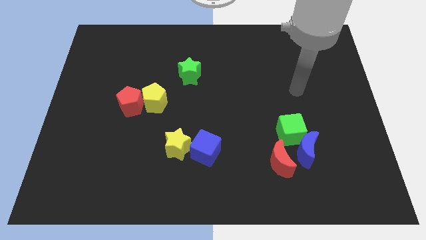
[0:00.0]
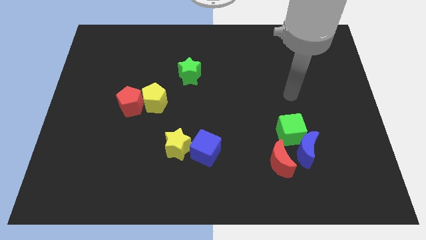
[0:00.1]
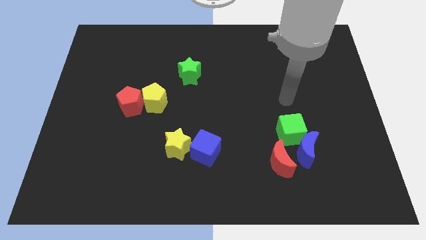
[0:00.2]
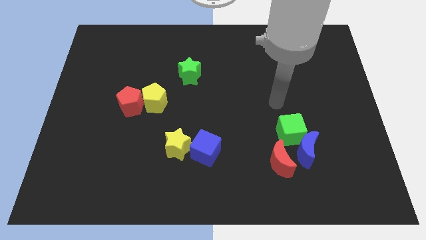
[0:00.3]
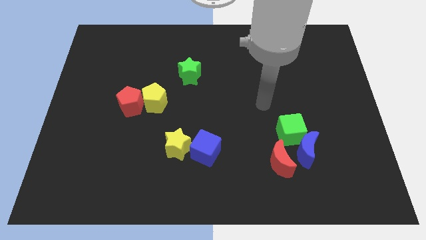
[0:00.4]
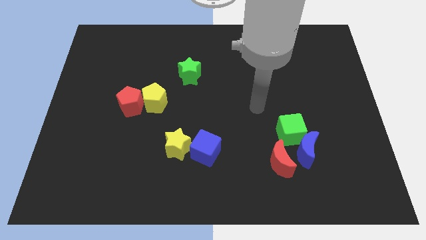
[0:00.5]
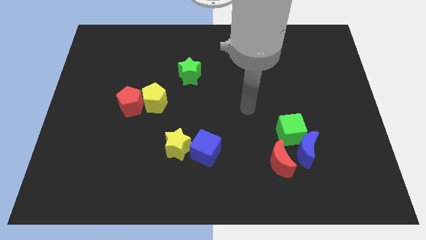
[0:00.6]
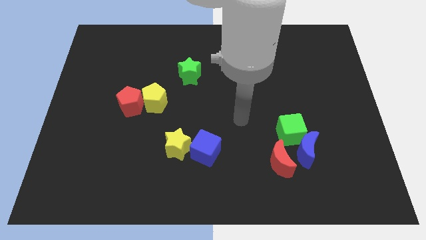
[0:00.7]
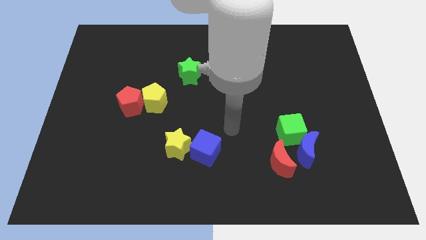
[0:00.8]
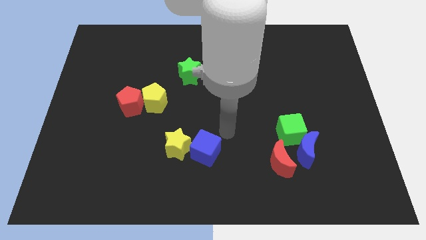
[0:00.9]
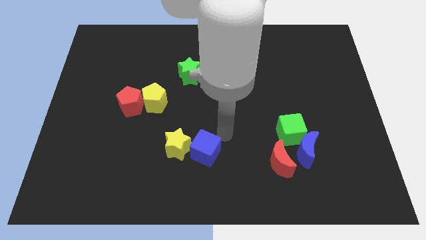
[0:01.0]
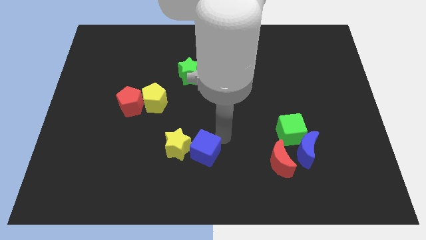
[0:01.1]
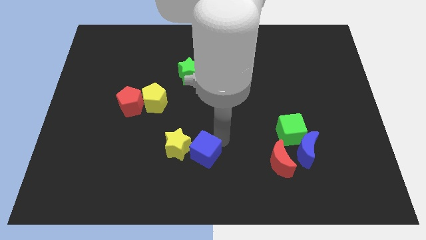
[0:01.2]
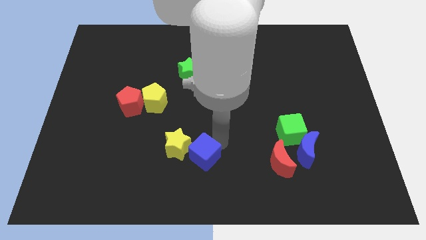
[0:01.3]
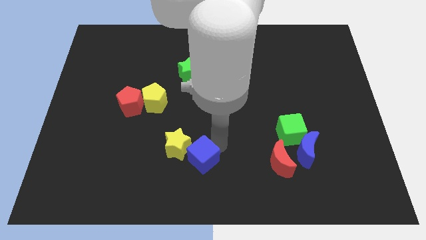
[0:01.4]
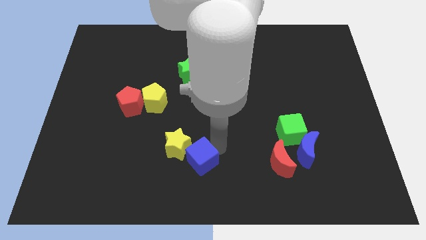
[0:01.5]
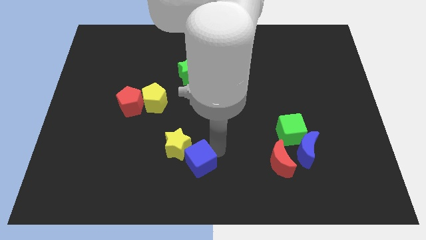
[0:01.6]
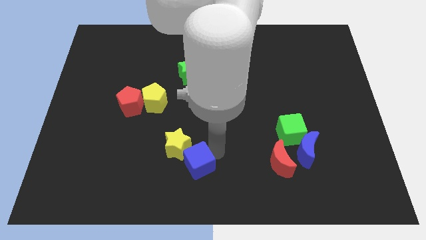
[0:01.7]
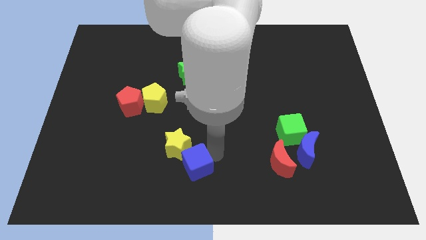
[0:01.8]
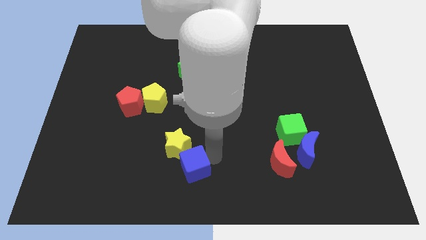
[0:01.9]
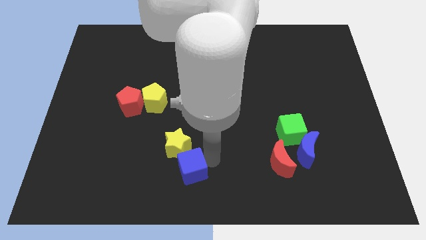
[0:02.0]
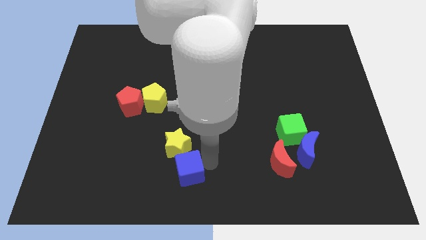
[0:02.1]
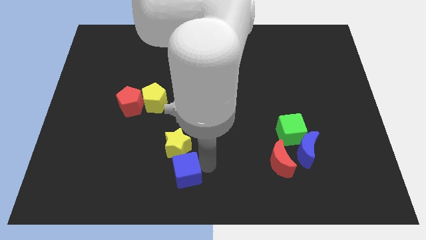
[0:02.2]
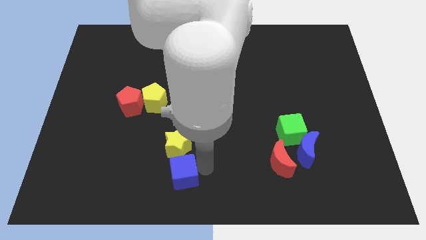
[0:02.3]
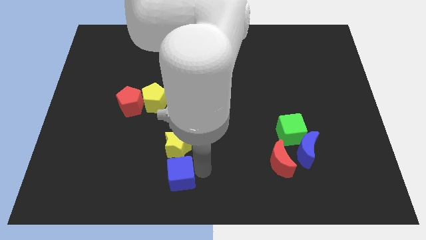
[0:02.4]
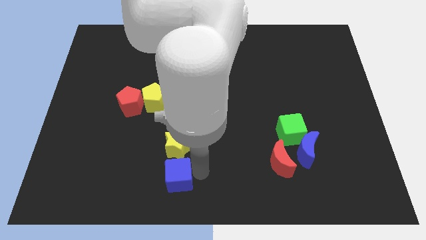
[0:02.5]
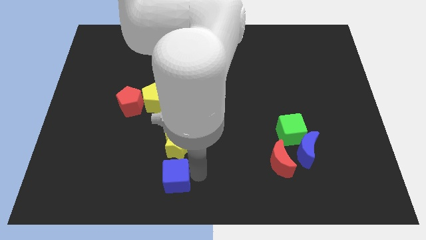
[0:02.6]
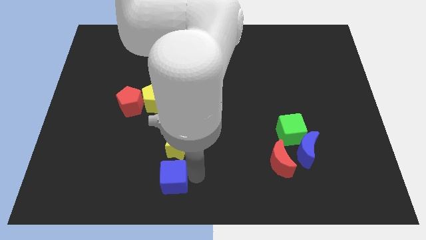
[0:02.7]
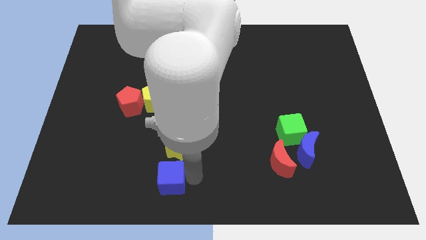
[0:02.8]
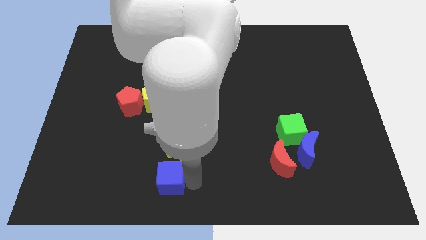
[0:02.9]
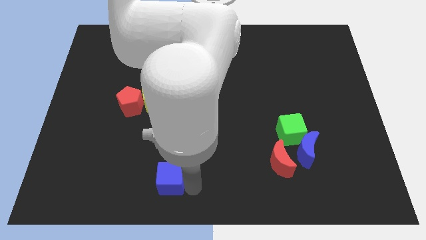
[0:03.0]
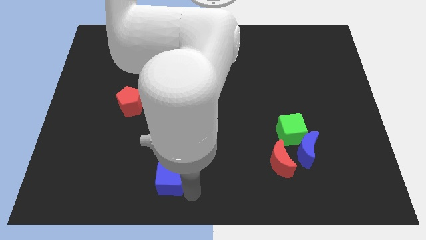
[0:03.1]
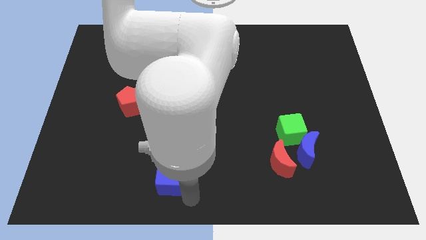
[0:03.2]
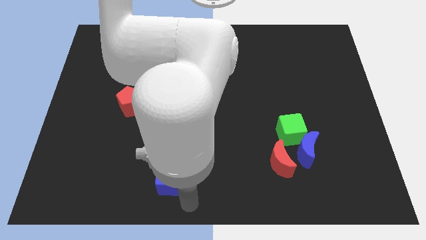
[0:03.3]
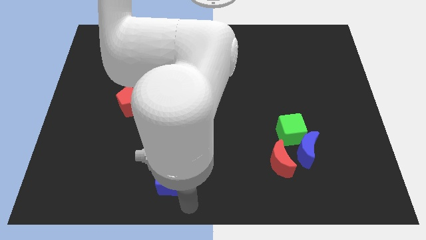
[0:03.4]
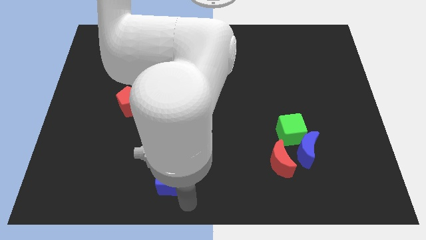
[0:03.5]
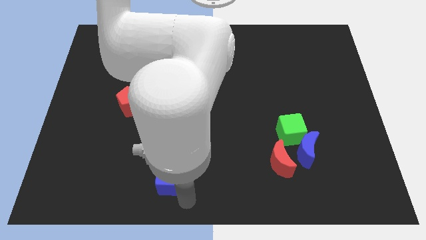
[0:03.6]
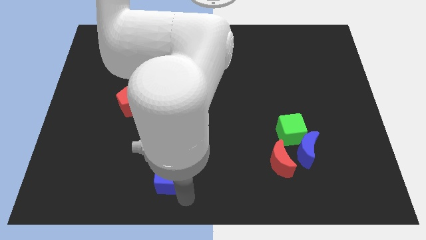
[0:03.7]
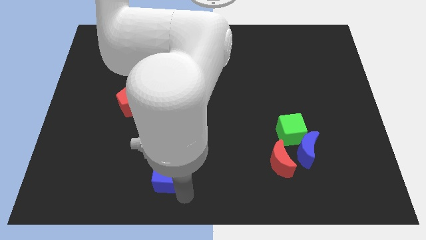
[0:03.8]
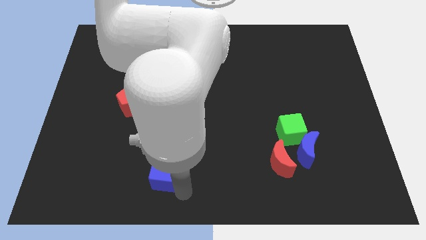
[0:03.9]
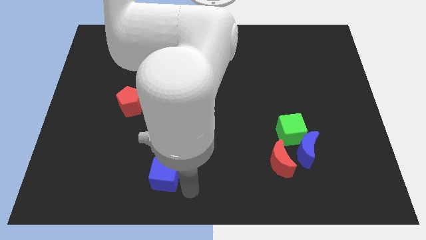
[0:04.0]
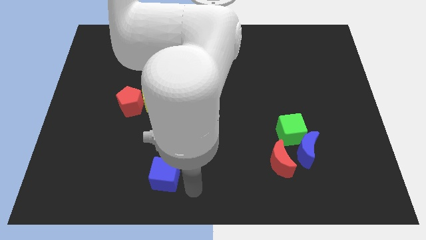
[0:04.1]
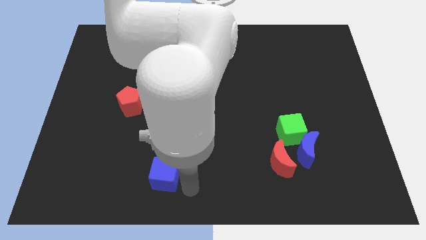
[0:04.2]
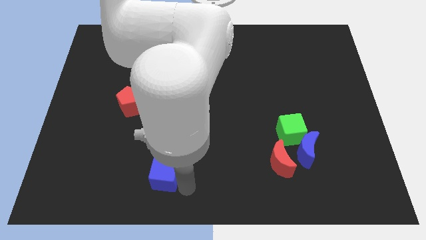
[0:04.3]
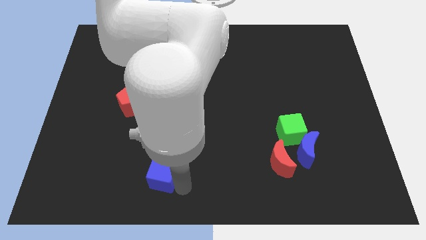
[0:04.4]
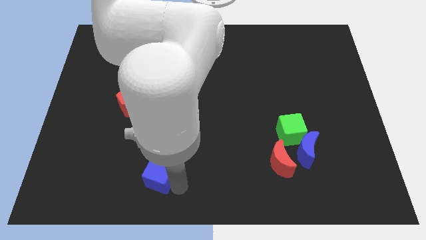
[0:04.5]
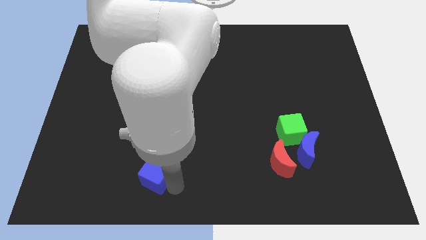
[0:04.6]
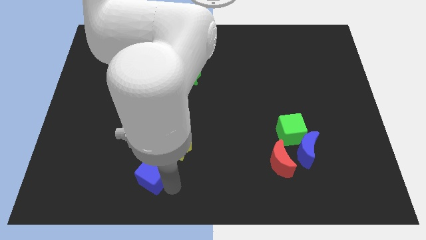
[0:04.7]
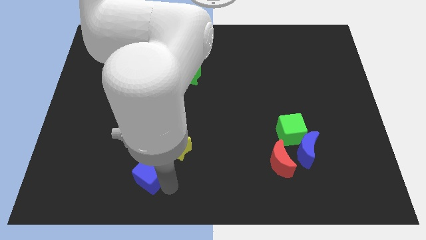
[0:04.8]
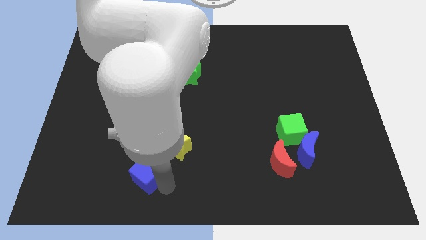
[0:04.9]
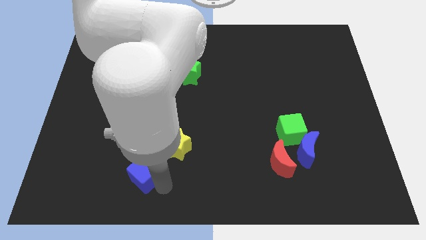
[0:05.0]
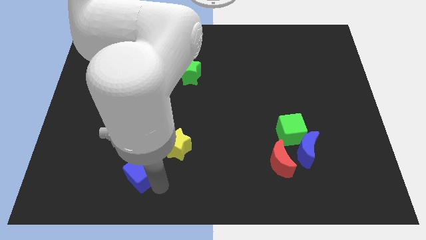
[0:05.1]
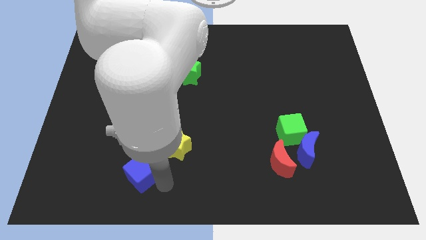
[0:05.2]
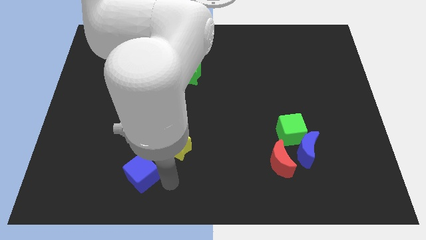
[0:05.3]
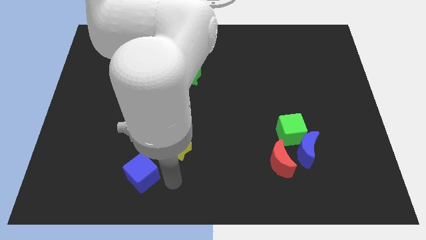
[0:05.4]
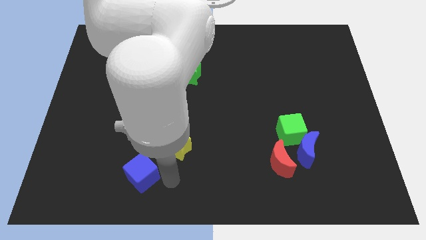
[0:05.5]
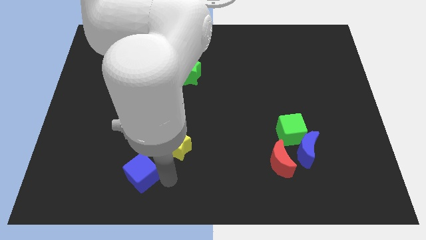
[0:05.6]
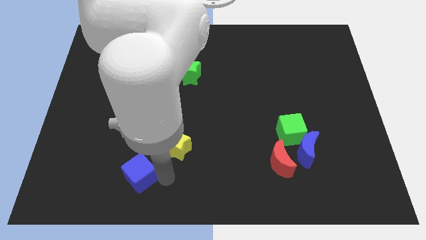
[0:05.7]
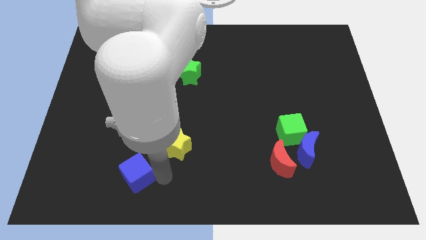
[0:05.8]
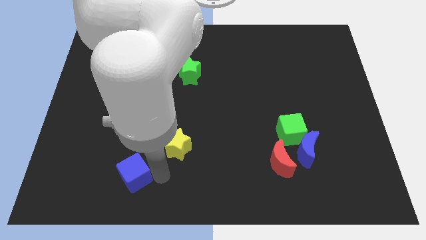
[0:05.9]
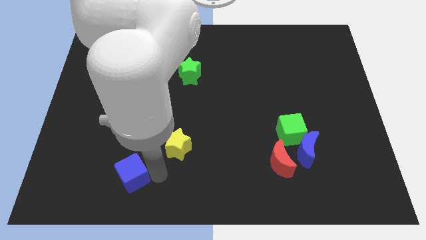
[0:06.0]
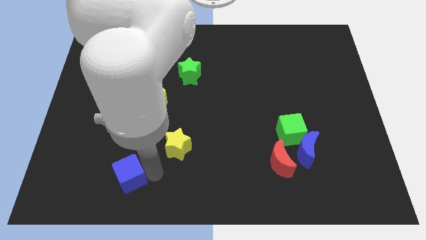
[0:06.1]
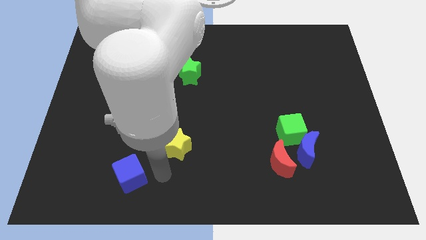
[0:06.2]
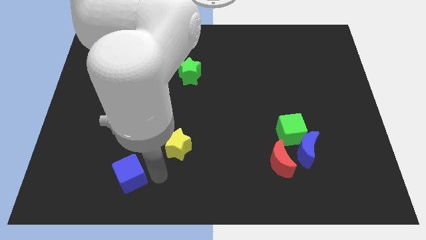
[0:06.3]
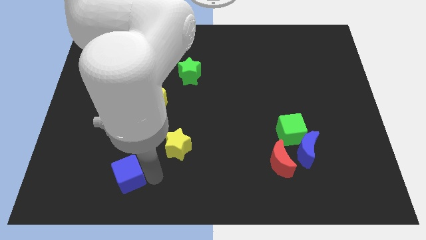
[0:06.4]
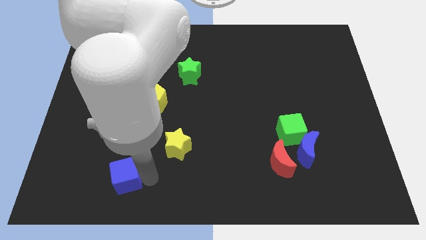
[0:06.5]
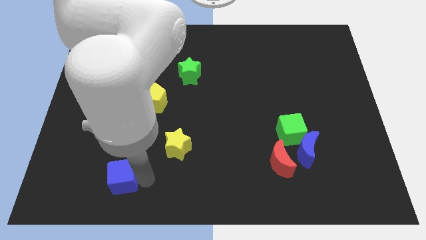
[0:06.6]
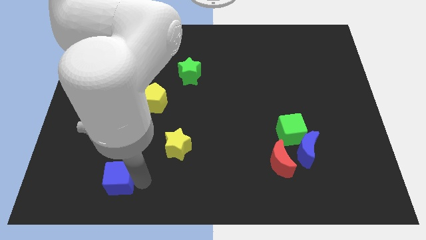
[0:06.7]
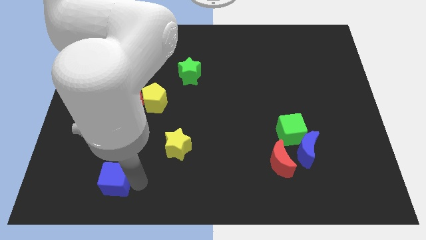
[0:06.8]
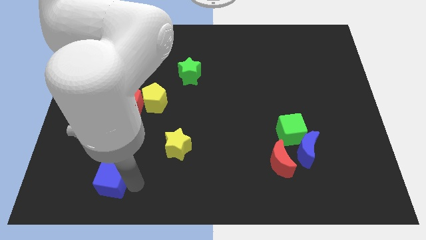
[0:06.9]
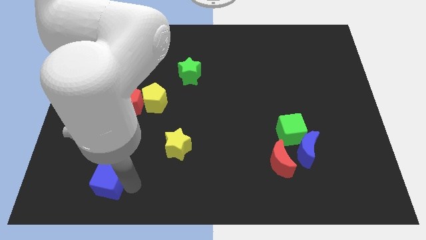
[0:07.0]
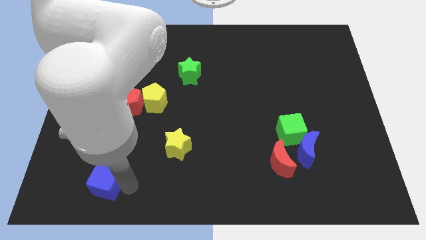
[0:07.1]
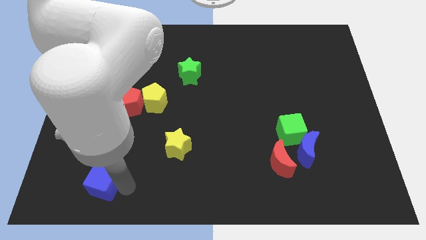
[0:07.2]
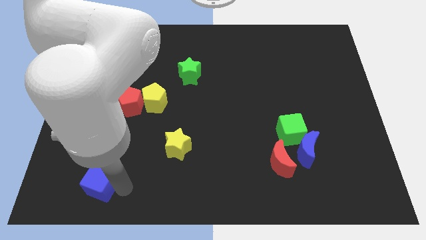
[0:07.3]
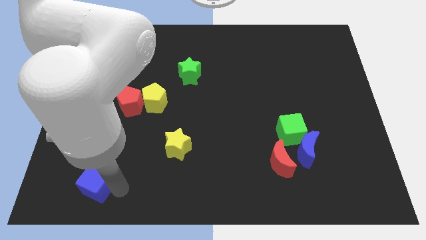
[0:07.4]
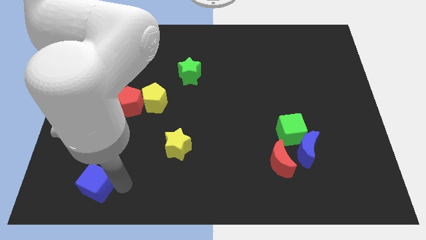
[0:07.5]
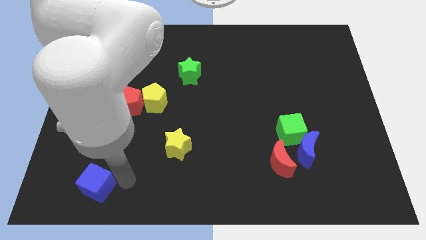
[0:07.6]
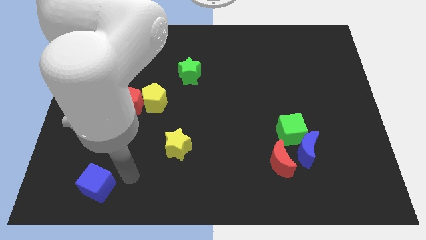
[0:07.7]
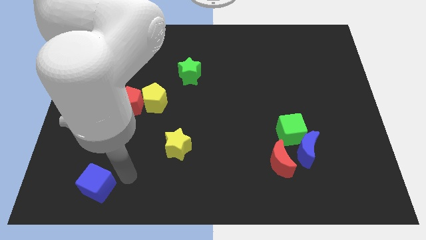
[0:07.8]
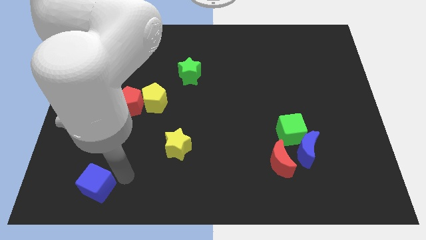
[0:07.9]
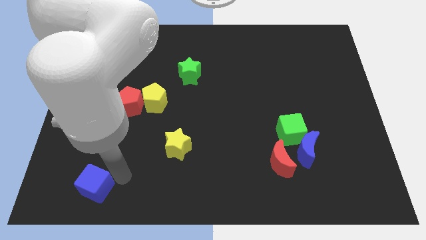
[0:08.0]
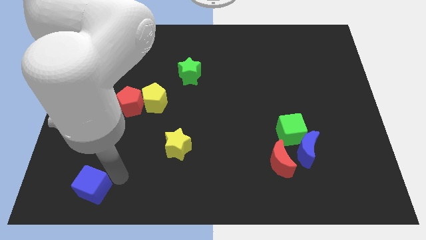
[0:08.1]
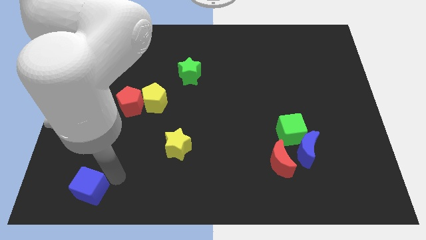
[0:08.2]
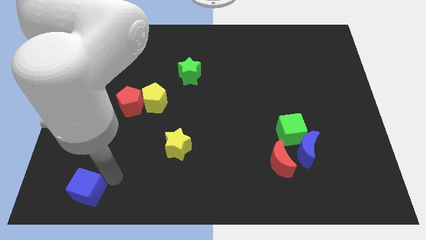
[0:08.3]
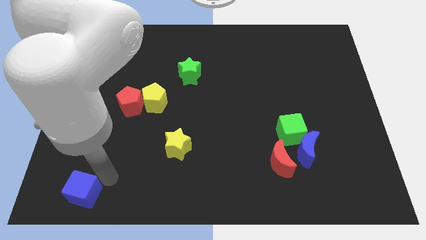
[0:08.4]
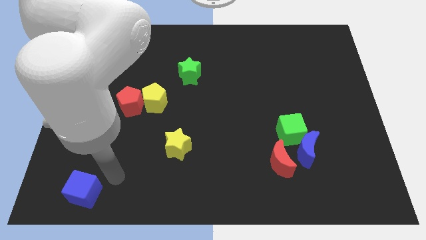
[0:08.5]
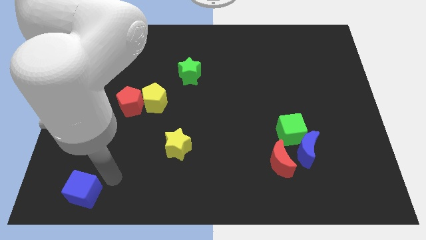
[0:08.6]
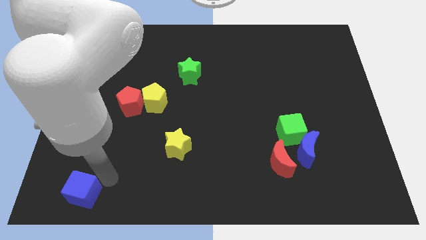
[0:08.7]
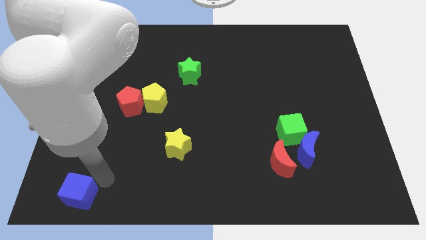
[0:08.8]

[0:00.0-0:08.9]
put the blue cube to the bottom left
